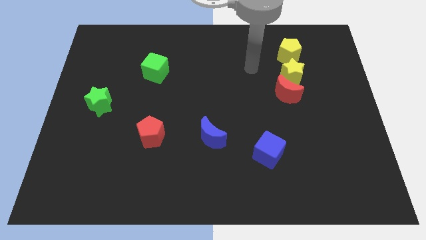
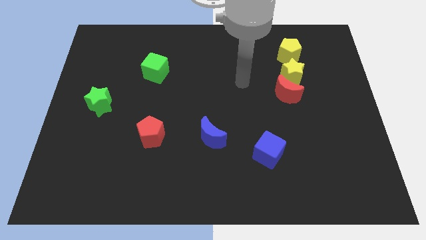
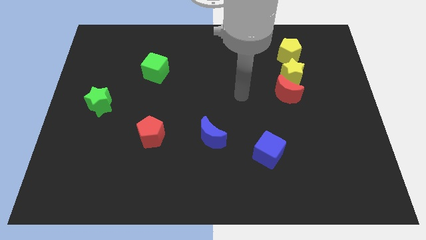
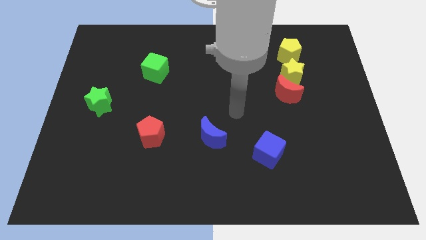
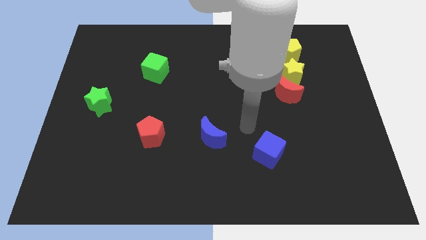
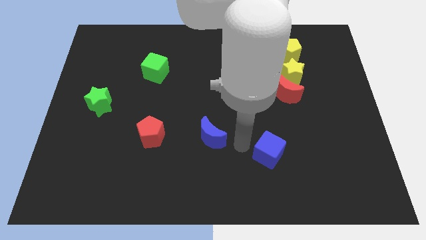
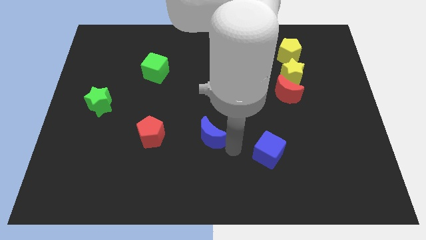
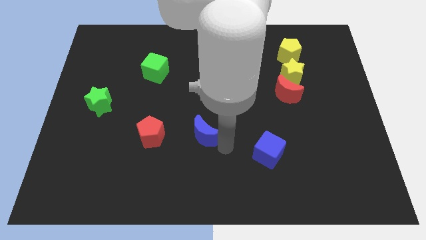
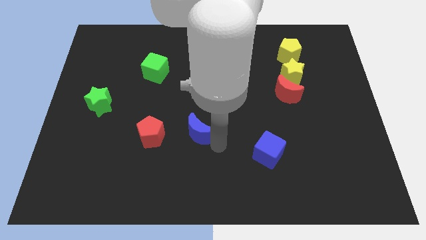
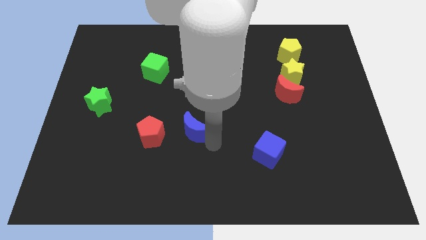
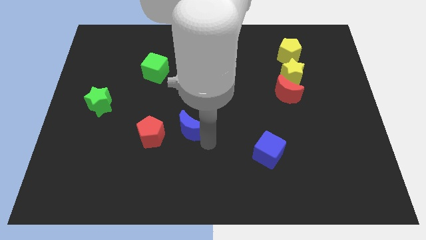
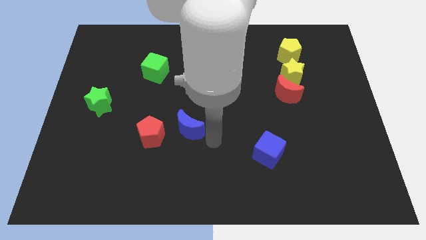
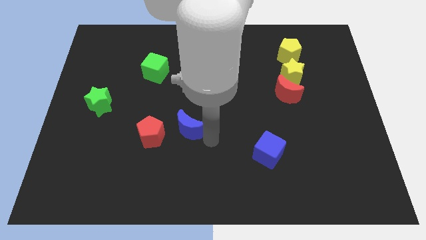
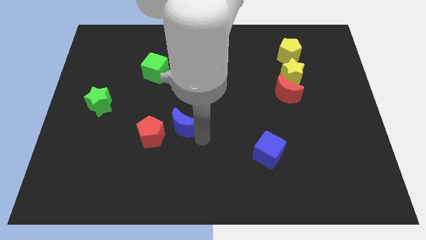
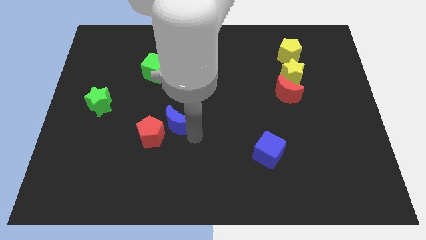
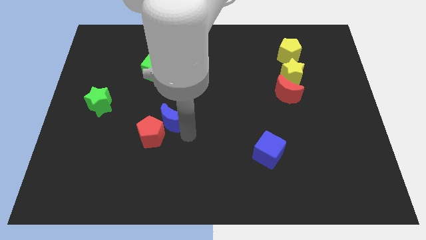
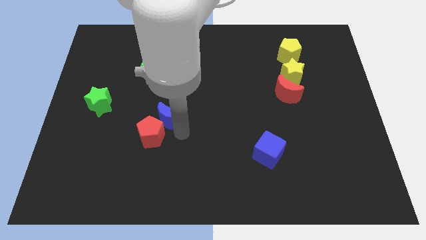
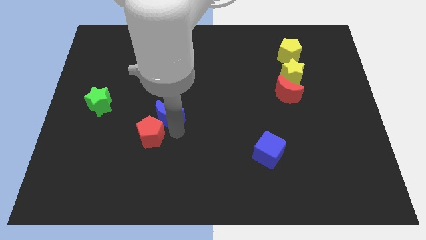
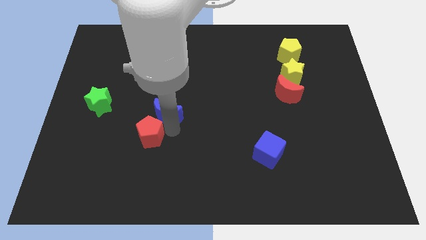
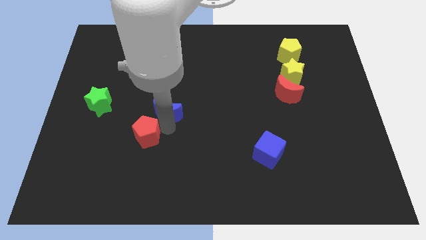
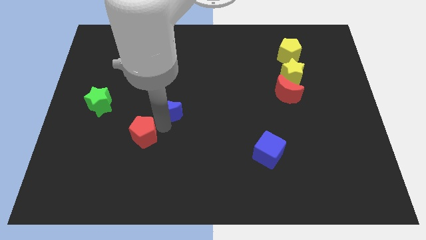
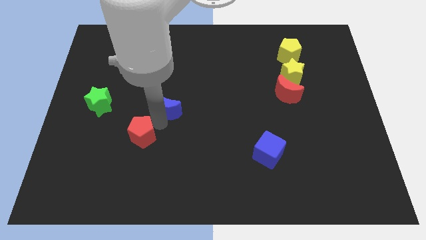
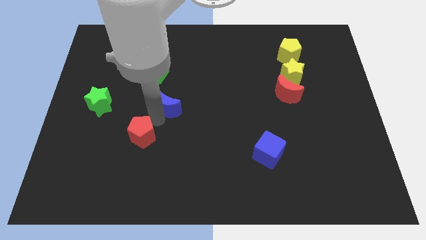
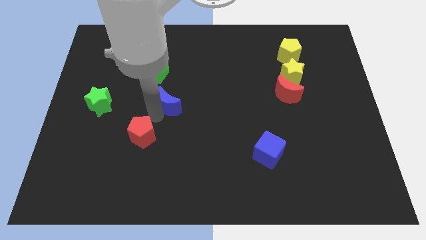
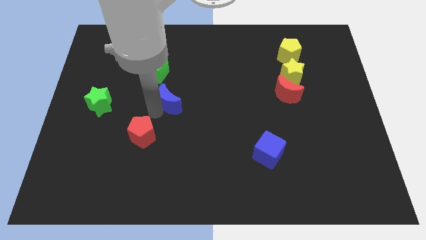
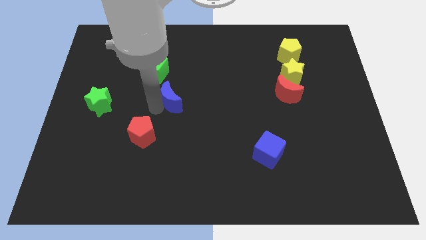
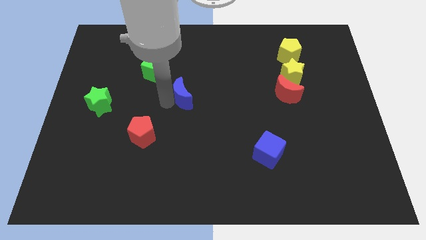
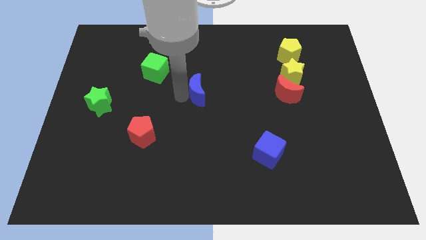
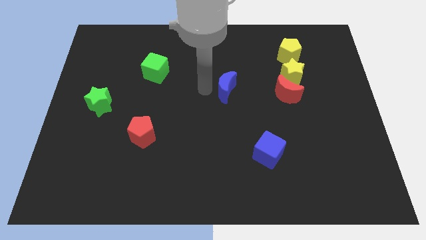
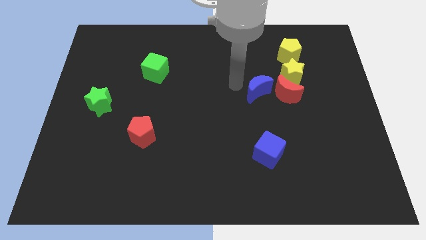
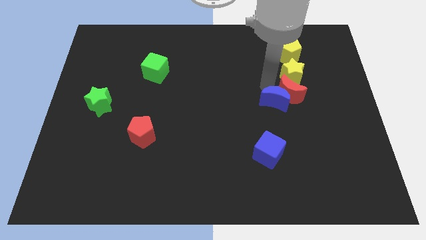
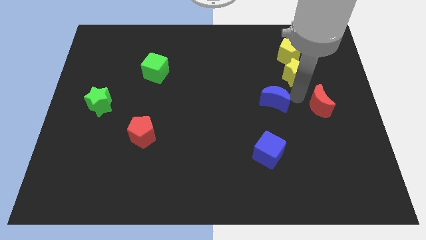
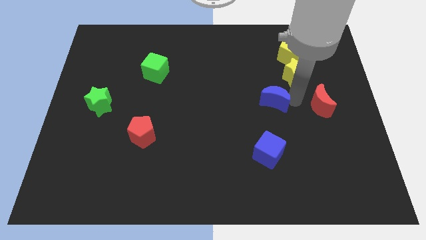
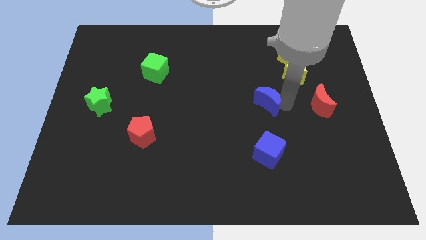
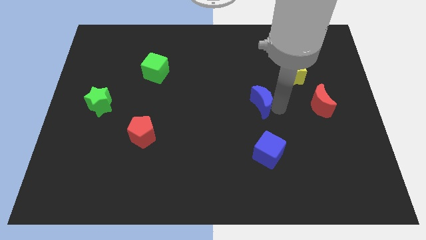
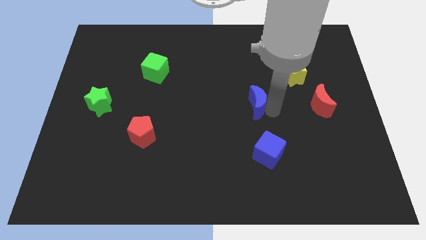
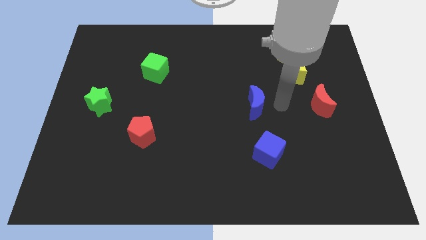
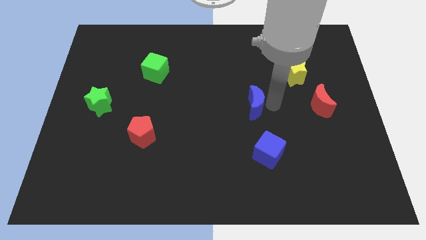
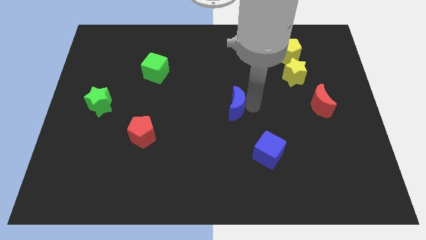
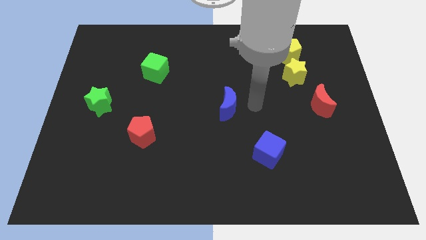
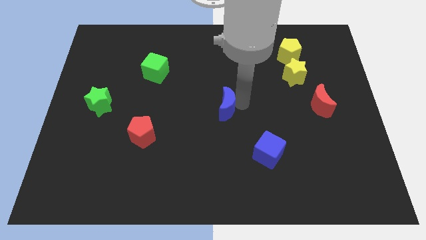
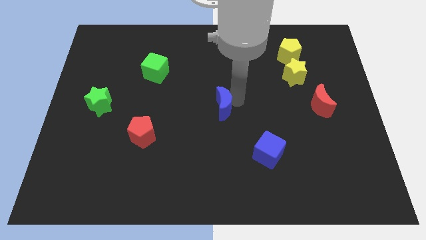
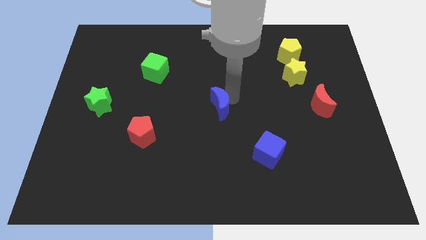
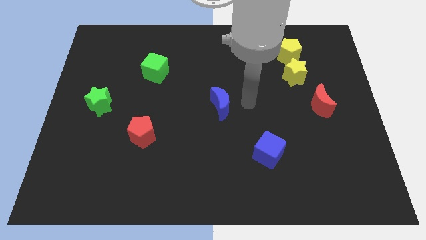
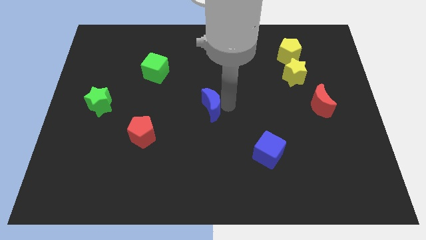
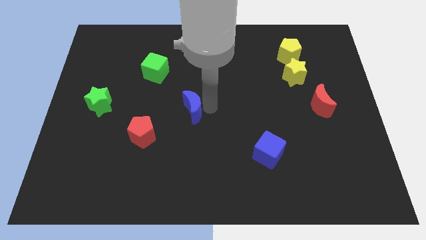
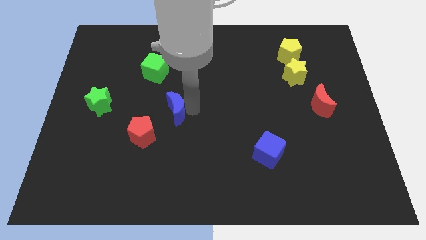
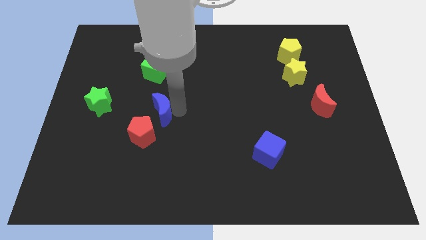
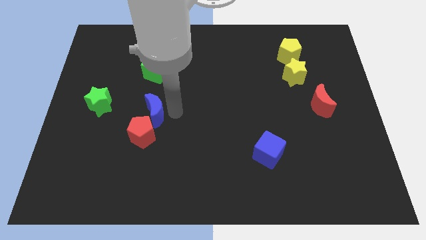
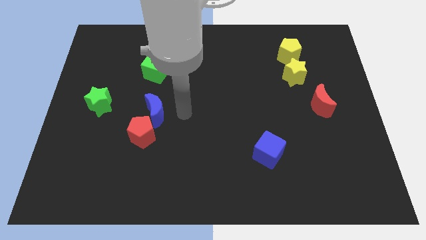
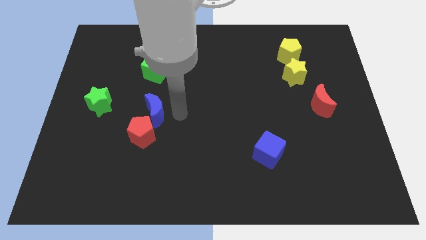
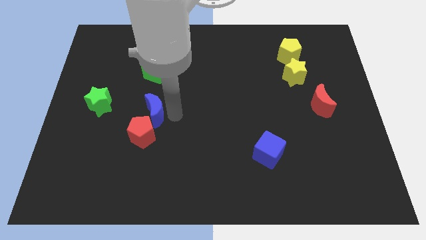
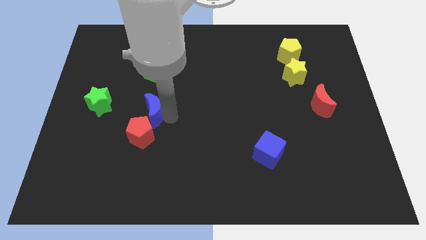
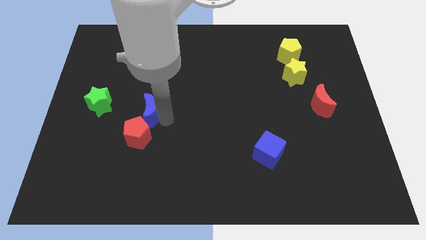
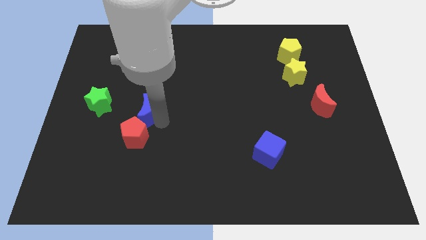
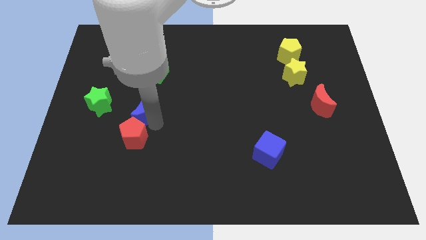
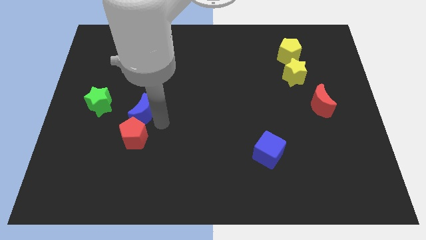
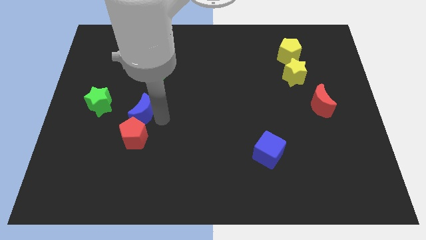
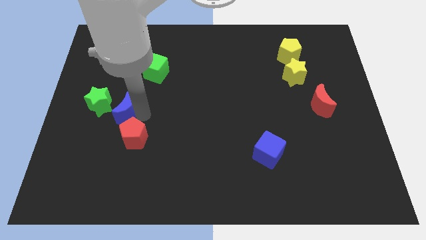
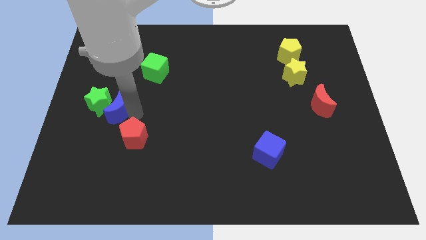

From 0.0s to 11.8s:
put the blue moon to the green star

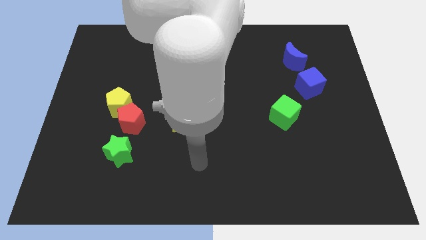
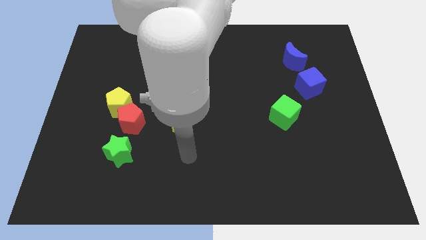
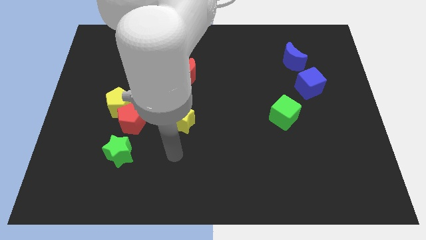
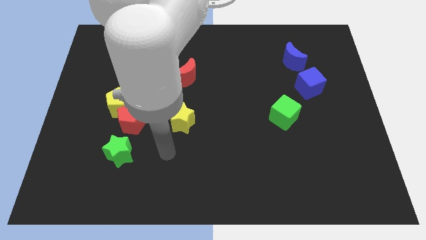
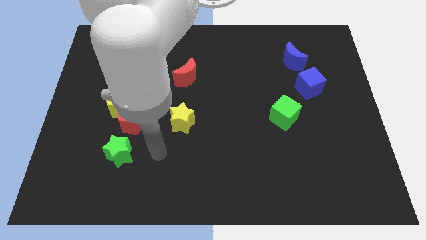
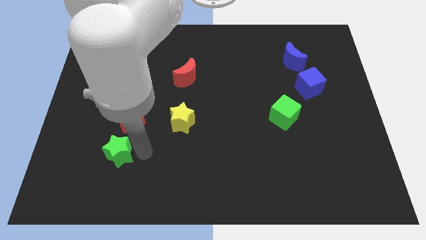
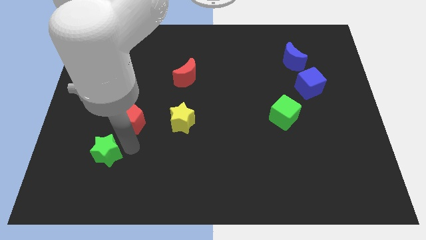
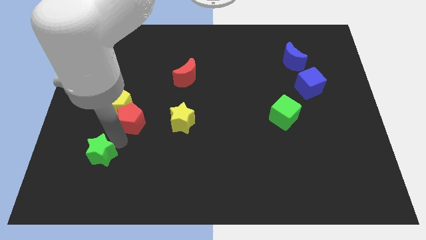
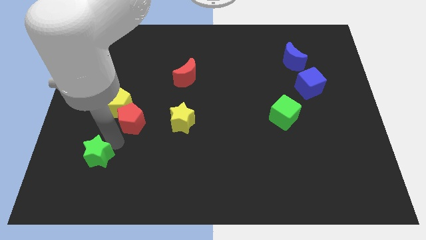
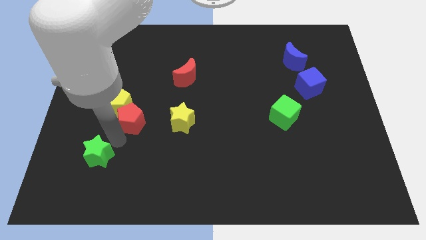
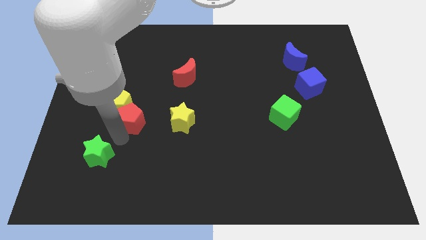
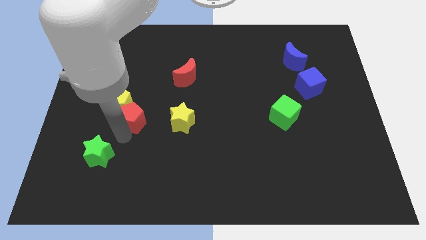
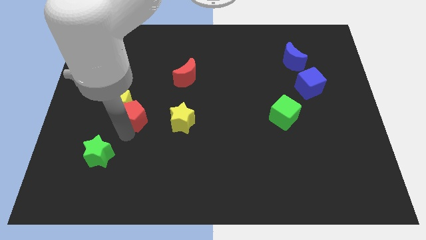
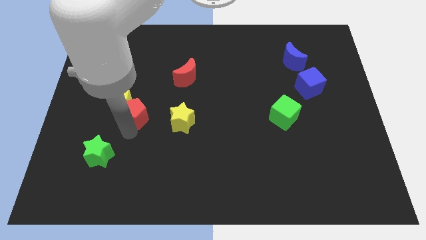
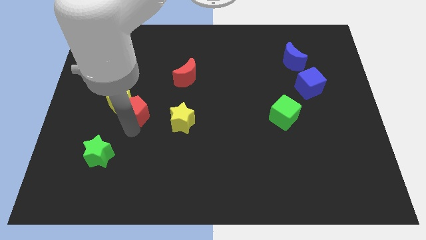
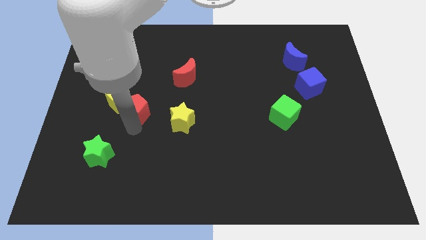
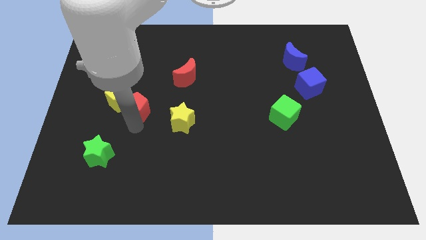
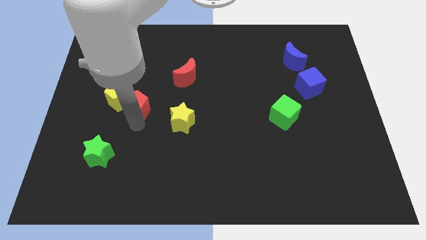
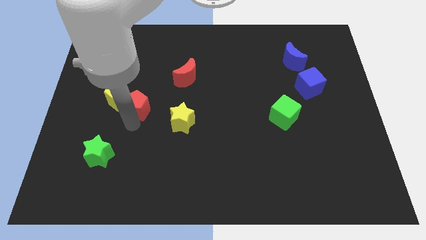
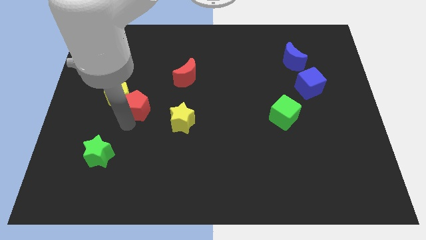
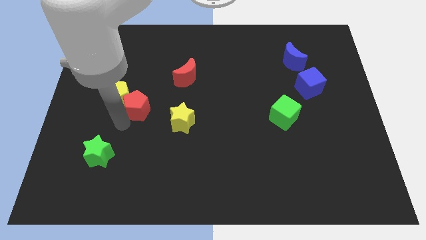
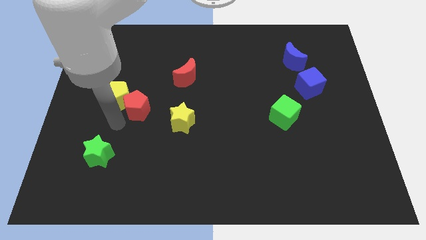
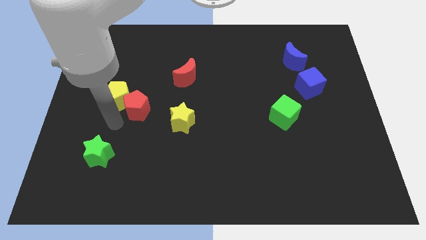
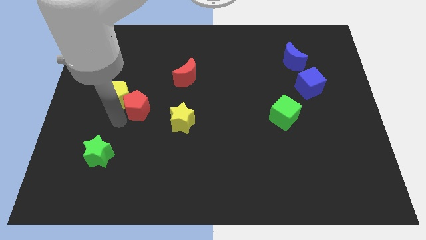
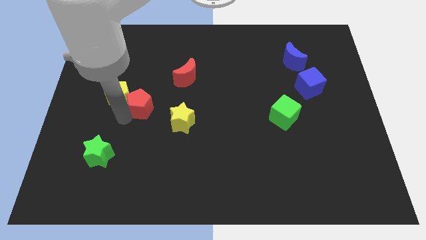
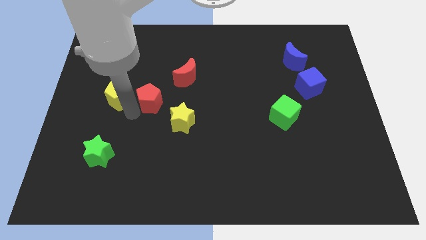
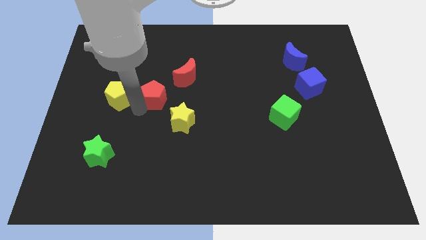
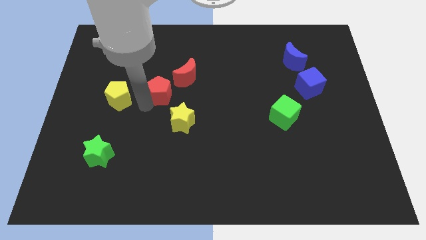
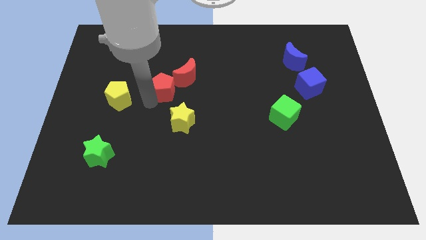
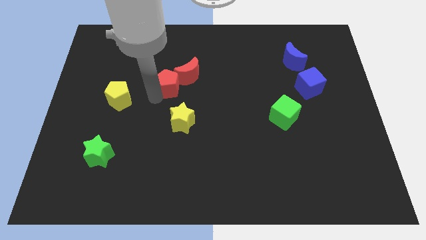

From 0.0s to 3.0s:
put the red pentagon close to the red moon
